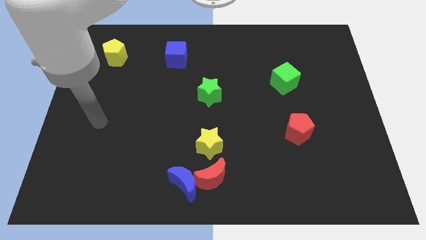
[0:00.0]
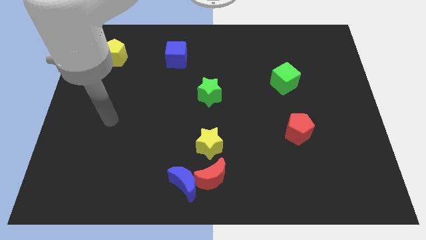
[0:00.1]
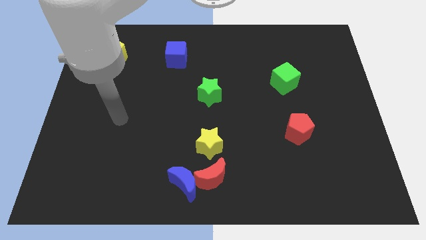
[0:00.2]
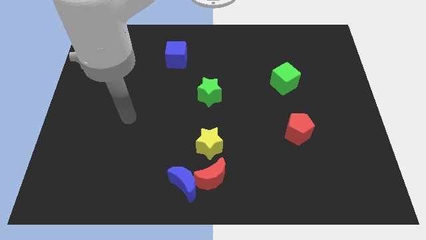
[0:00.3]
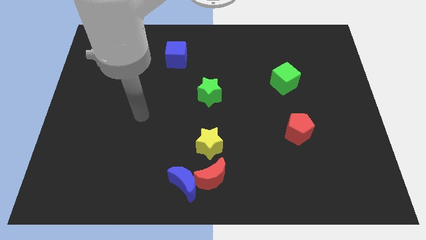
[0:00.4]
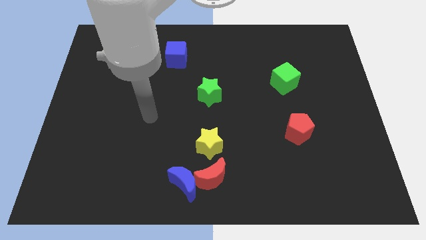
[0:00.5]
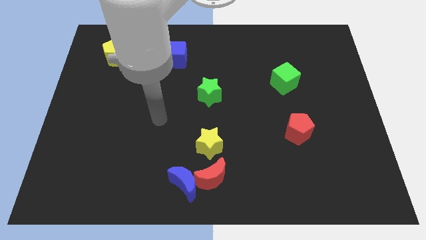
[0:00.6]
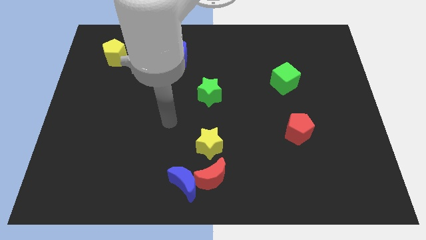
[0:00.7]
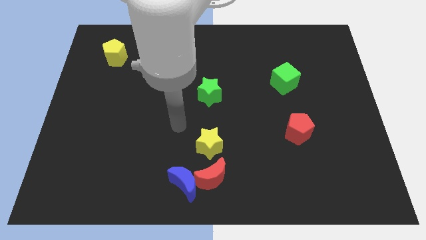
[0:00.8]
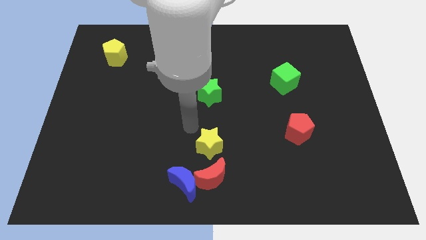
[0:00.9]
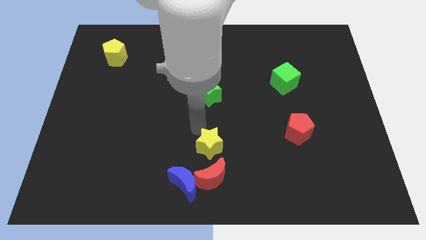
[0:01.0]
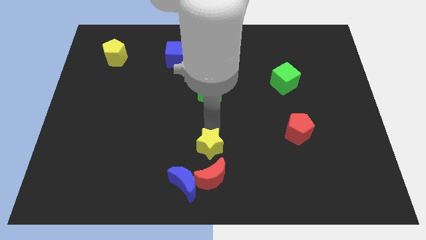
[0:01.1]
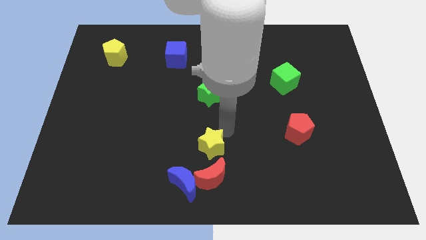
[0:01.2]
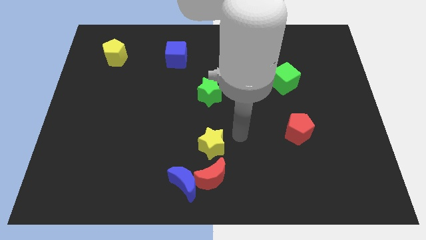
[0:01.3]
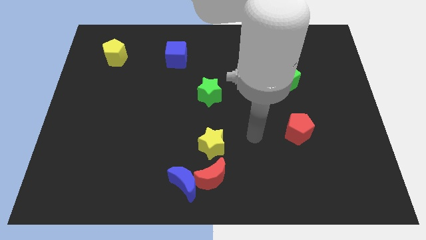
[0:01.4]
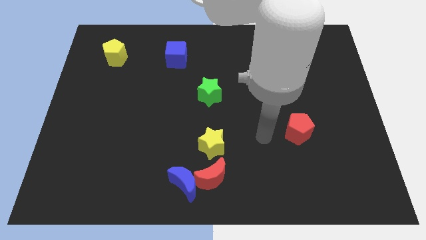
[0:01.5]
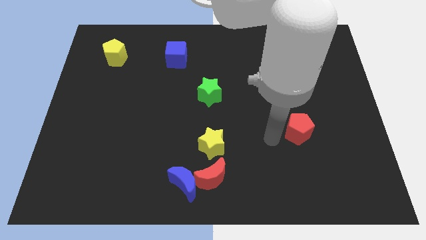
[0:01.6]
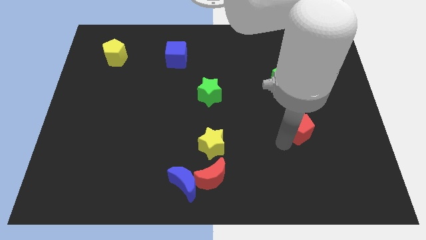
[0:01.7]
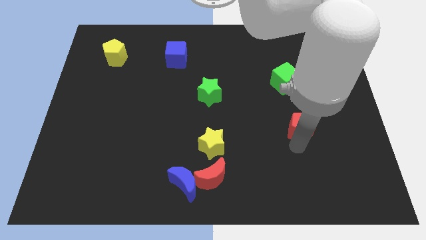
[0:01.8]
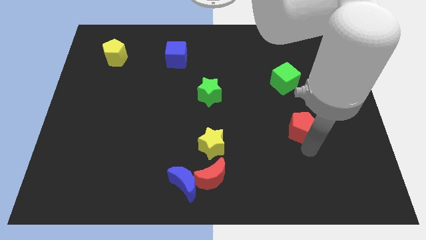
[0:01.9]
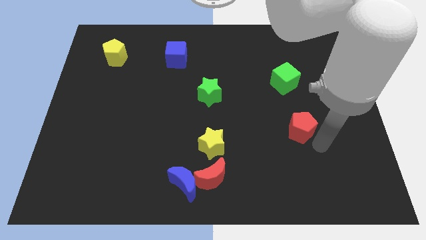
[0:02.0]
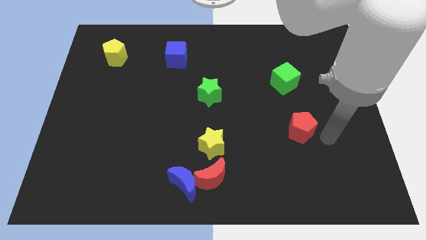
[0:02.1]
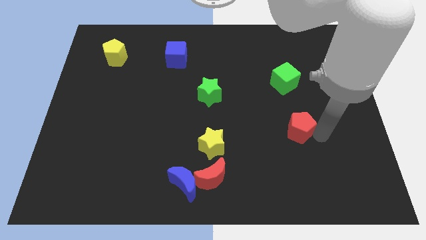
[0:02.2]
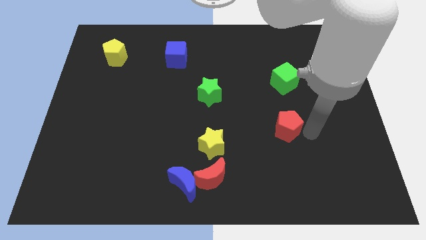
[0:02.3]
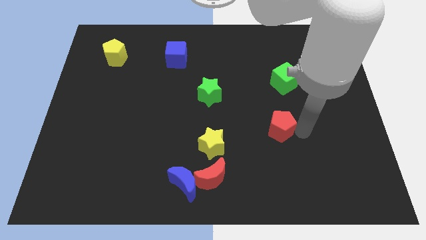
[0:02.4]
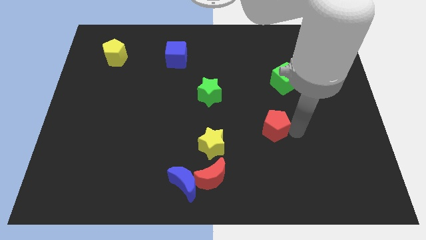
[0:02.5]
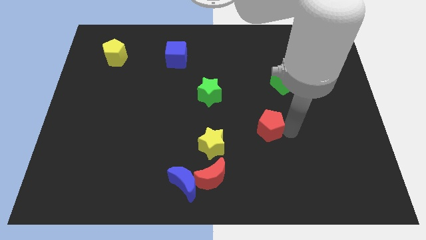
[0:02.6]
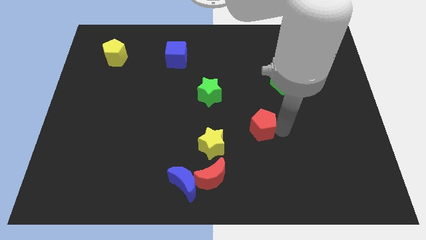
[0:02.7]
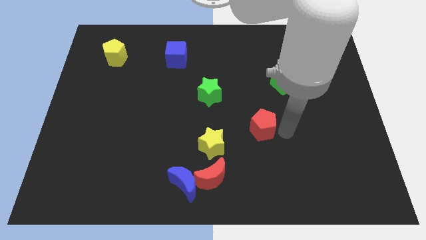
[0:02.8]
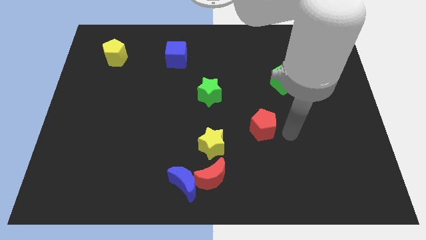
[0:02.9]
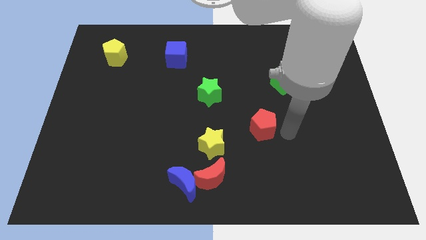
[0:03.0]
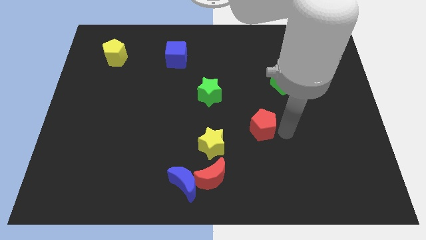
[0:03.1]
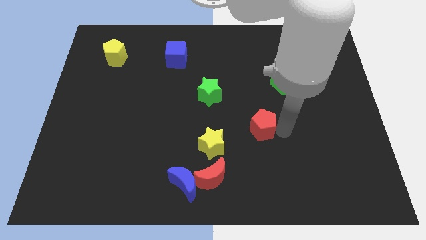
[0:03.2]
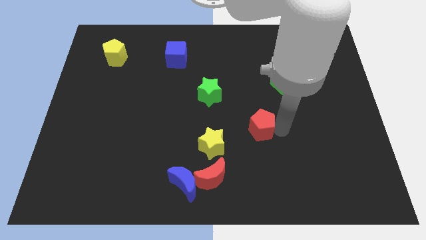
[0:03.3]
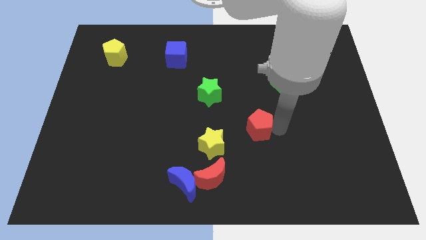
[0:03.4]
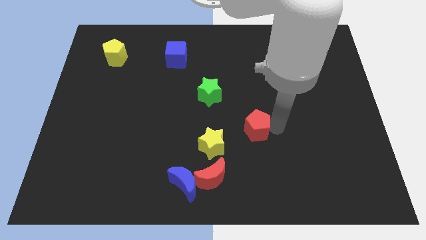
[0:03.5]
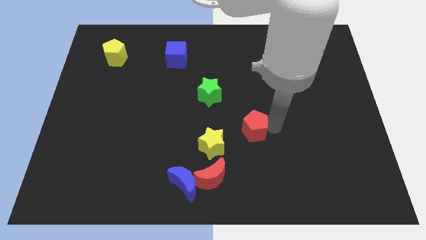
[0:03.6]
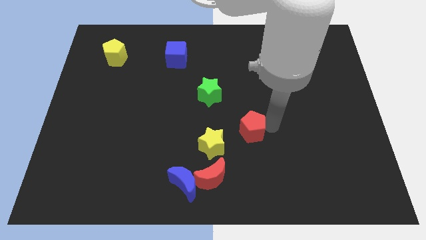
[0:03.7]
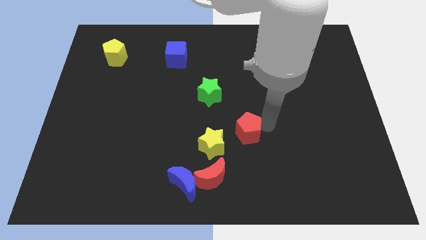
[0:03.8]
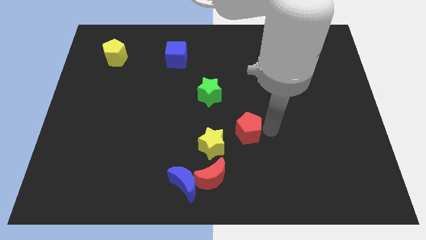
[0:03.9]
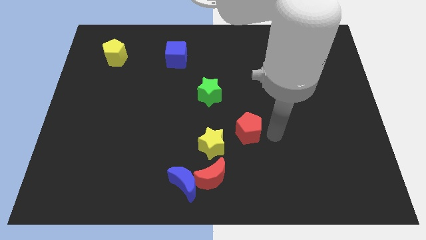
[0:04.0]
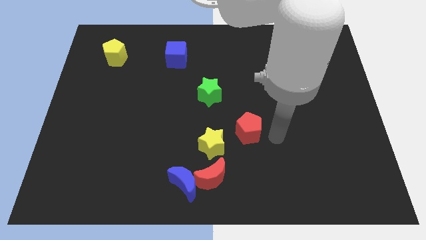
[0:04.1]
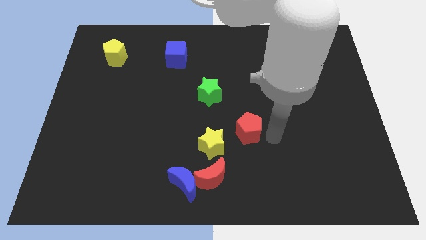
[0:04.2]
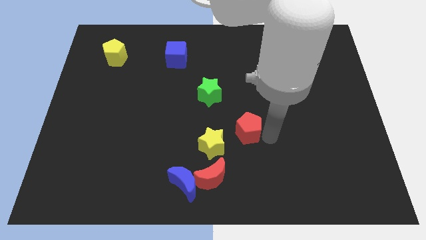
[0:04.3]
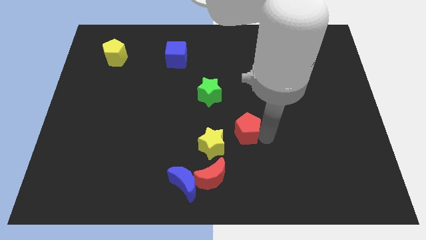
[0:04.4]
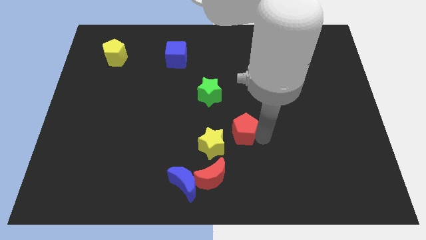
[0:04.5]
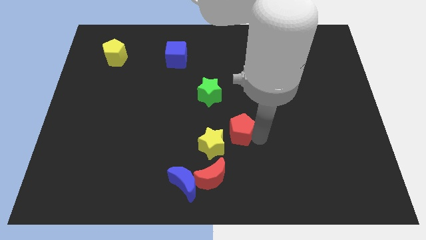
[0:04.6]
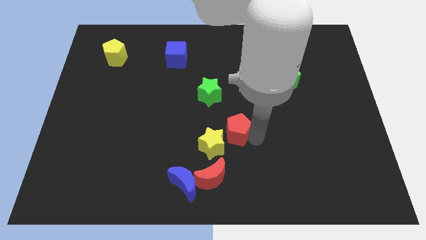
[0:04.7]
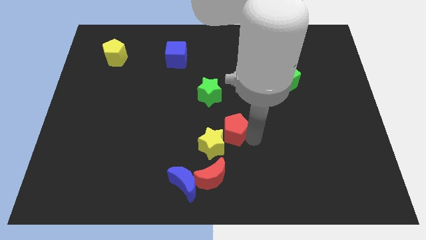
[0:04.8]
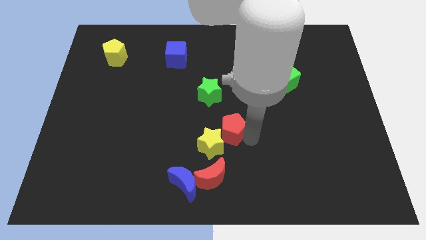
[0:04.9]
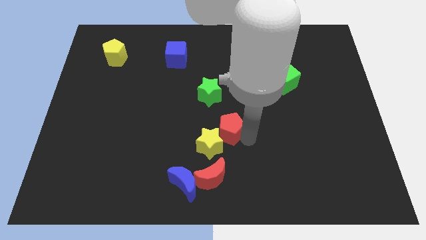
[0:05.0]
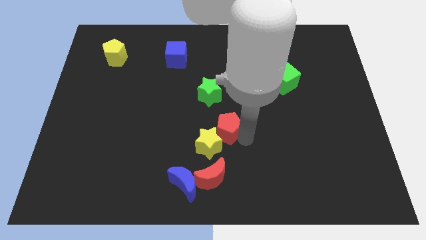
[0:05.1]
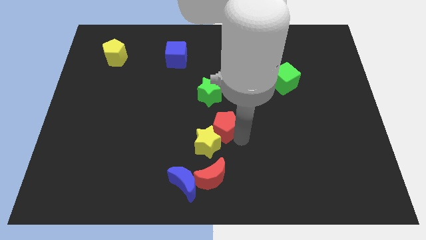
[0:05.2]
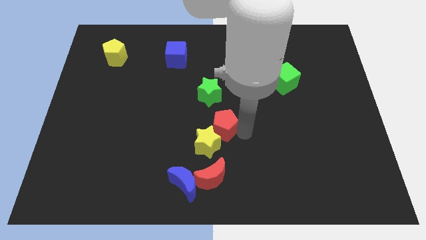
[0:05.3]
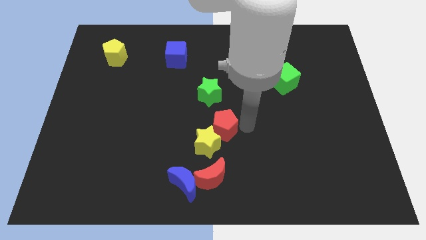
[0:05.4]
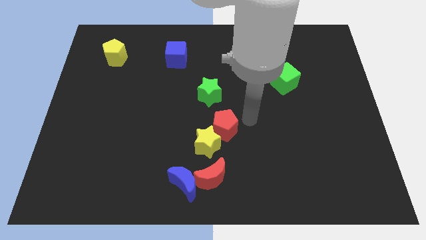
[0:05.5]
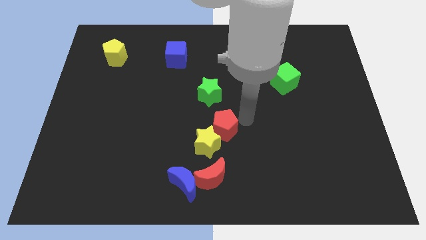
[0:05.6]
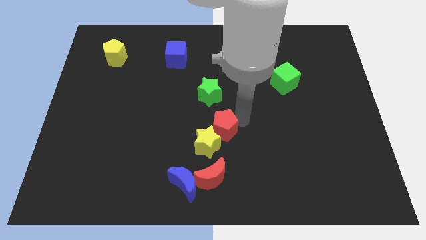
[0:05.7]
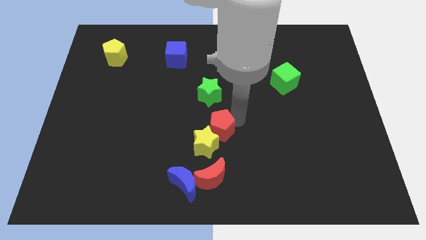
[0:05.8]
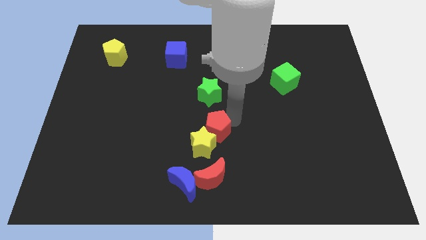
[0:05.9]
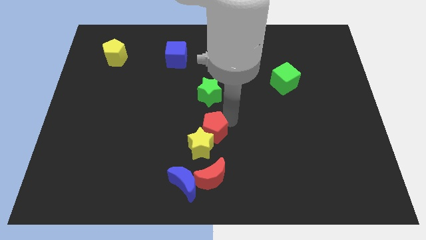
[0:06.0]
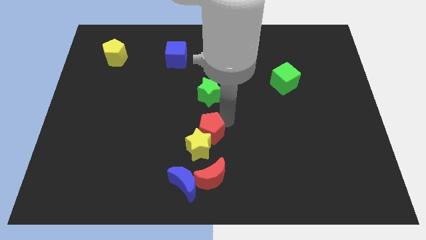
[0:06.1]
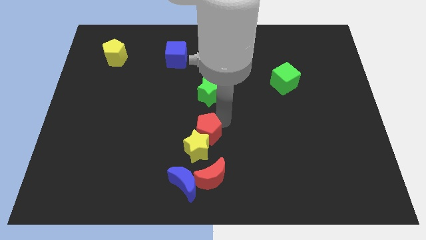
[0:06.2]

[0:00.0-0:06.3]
move the red pentagon to the top of the blue moon
